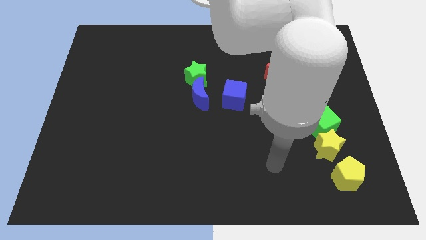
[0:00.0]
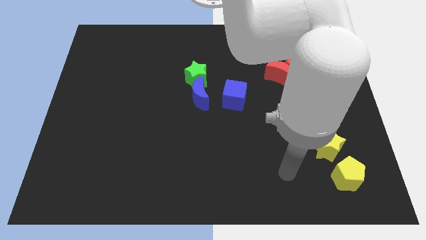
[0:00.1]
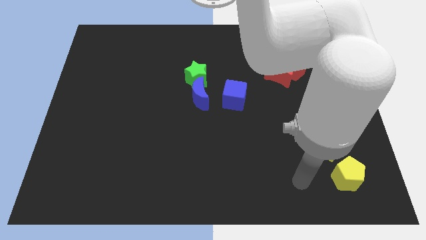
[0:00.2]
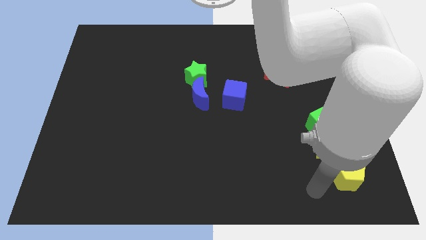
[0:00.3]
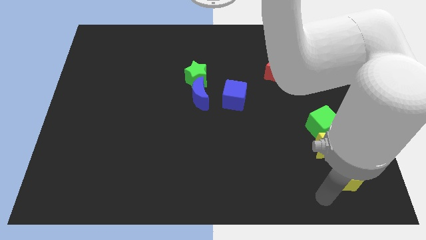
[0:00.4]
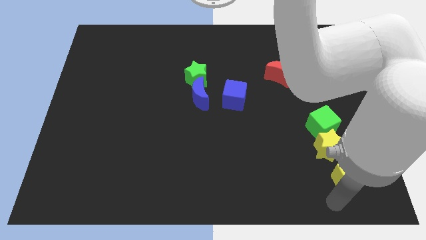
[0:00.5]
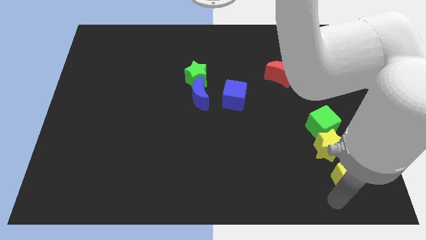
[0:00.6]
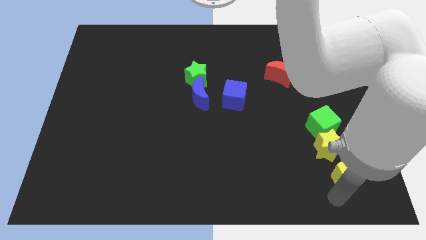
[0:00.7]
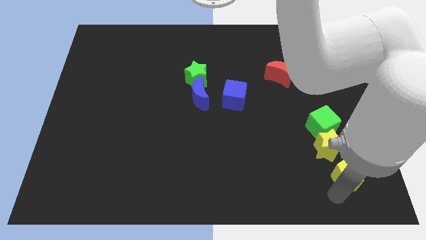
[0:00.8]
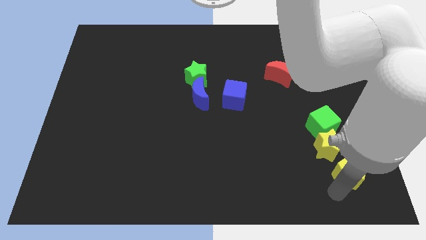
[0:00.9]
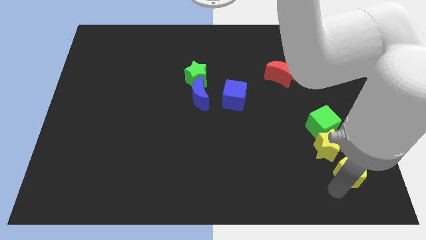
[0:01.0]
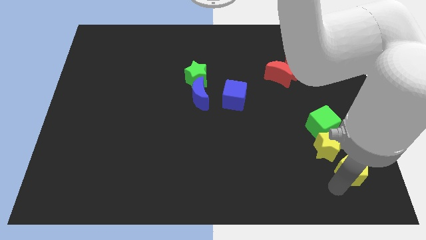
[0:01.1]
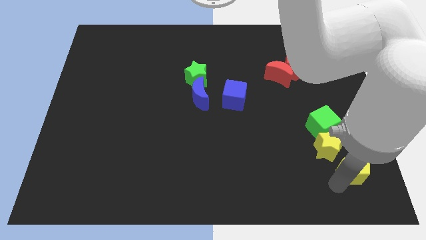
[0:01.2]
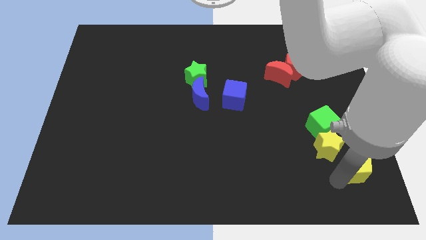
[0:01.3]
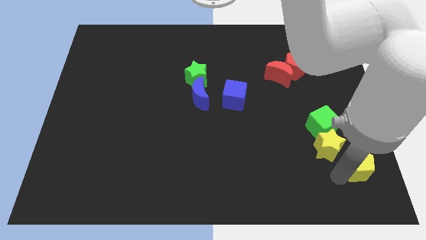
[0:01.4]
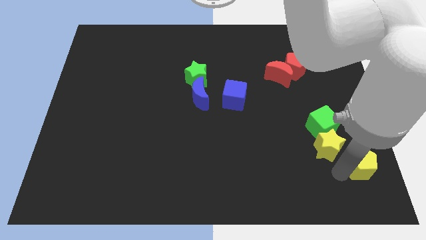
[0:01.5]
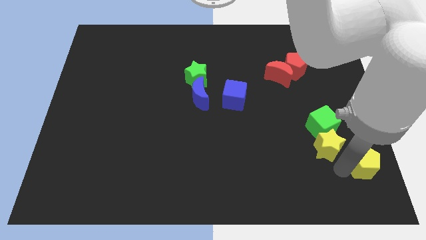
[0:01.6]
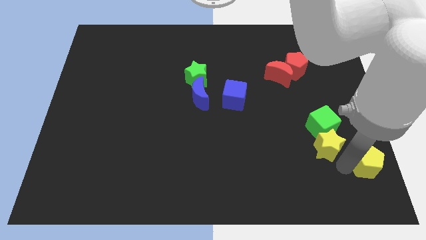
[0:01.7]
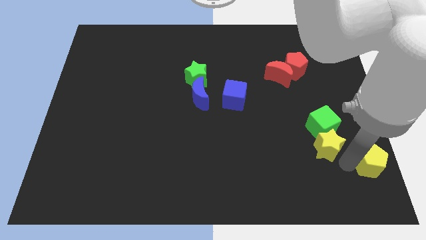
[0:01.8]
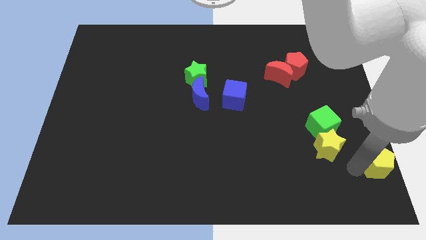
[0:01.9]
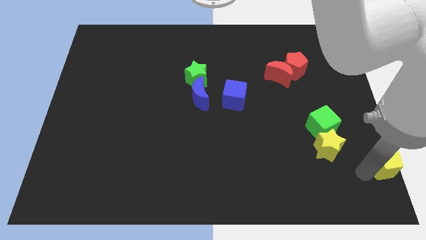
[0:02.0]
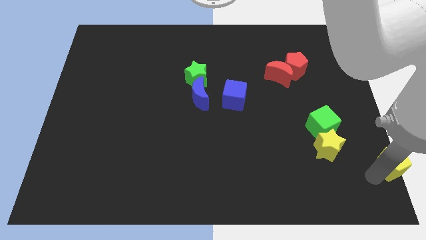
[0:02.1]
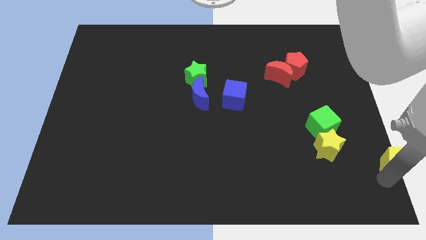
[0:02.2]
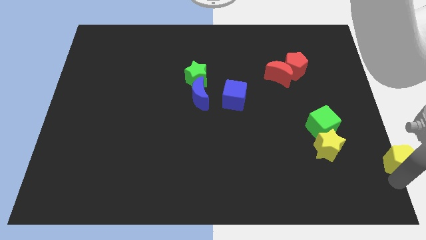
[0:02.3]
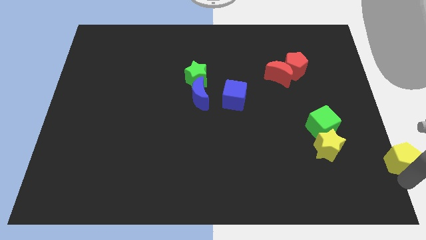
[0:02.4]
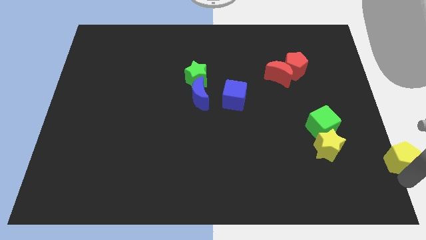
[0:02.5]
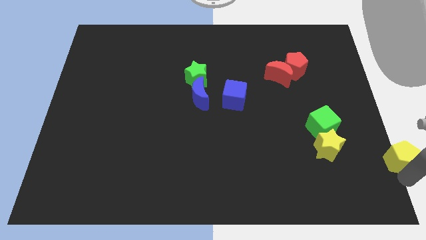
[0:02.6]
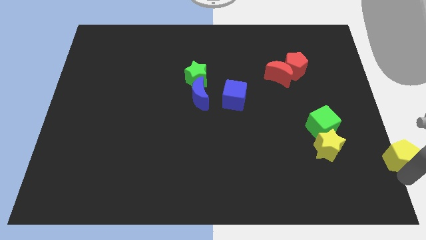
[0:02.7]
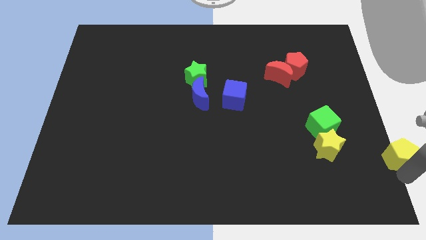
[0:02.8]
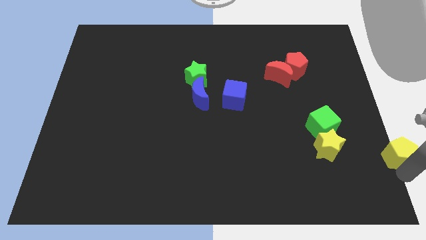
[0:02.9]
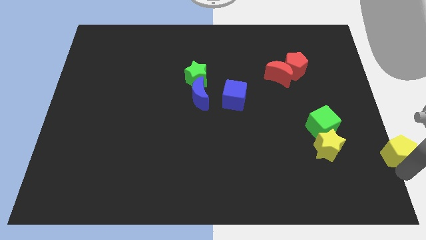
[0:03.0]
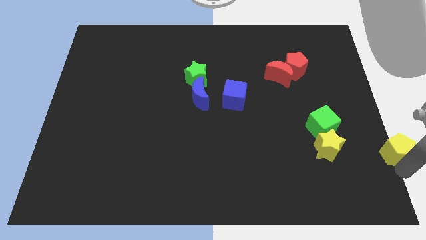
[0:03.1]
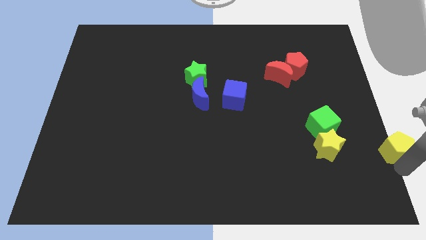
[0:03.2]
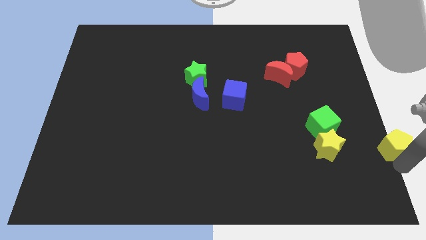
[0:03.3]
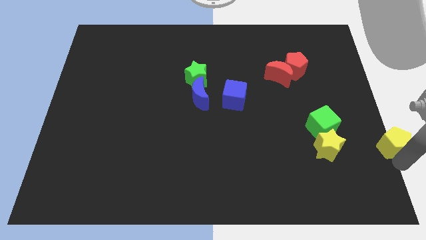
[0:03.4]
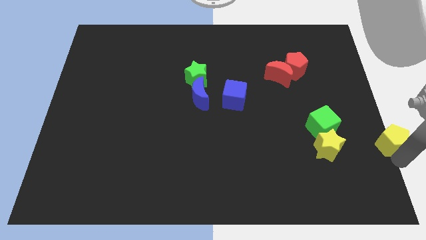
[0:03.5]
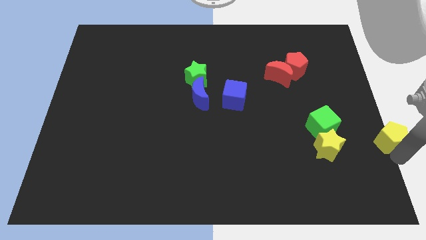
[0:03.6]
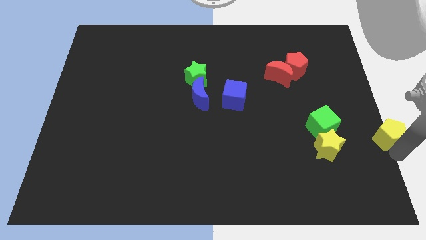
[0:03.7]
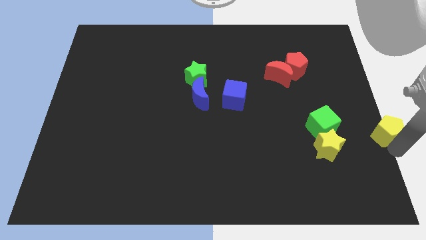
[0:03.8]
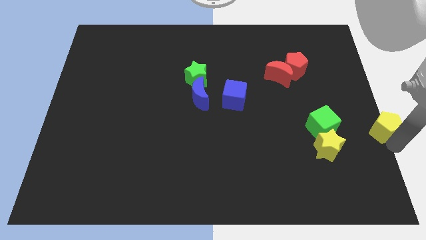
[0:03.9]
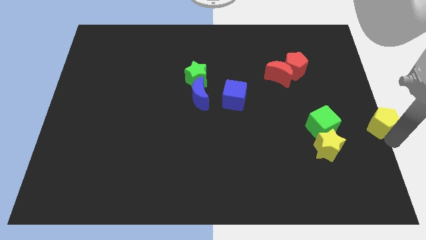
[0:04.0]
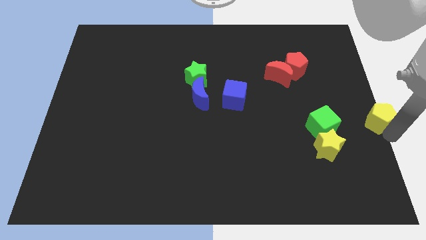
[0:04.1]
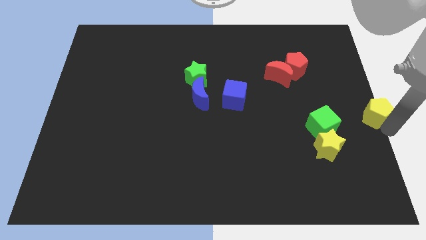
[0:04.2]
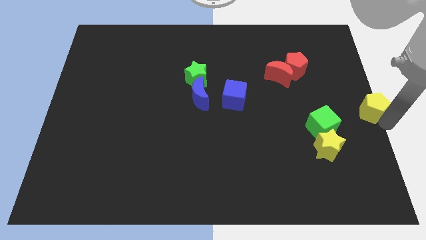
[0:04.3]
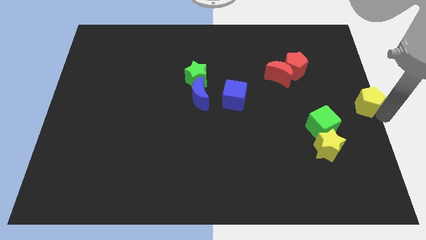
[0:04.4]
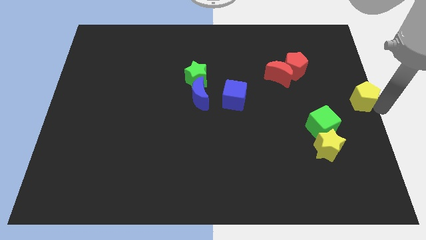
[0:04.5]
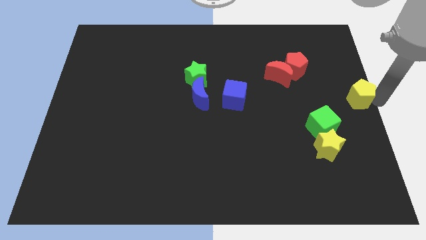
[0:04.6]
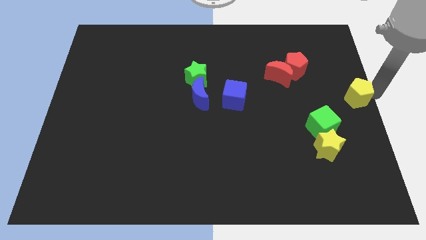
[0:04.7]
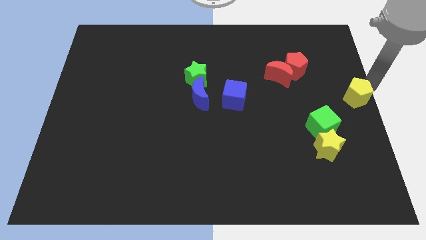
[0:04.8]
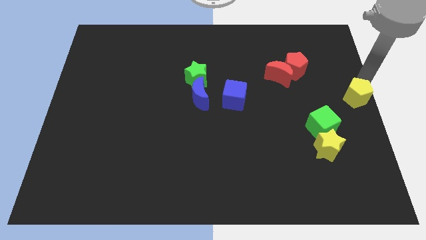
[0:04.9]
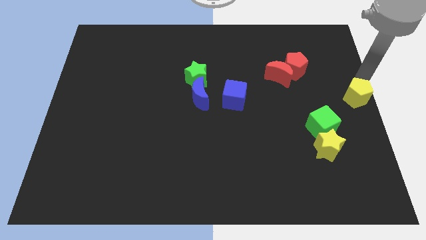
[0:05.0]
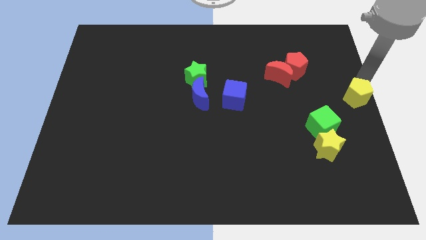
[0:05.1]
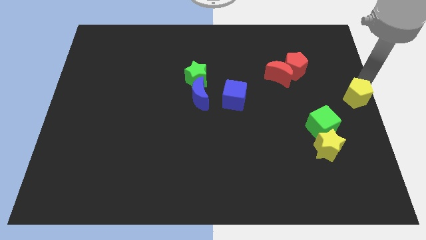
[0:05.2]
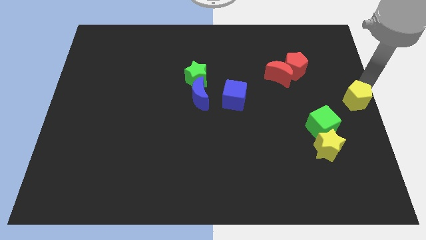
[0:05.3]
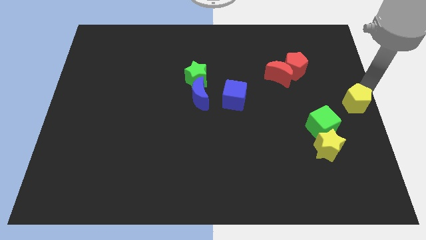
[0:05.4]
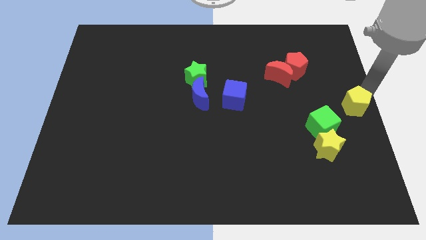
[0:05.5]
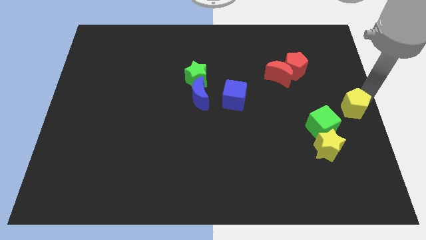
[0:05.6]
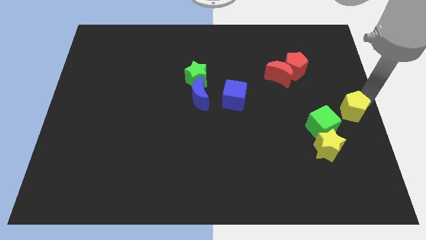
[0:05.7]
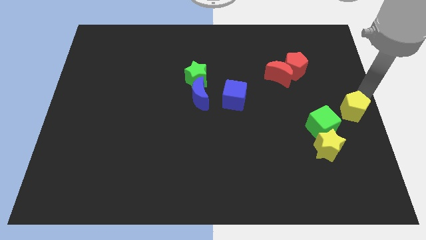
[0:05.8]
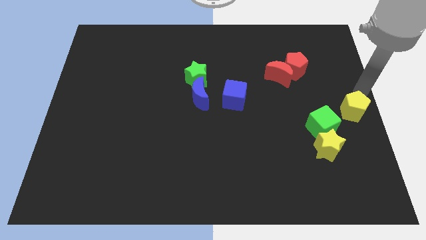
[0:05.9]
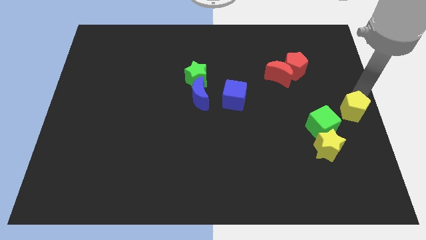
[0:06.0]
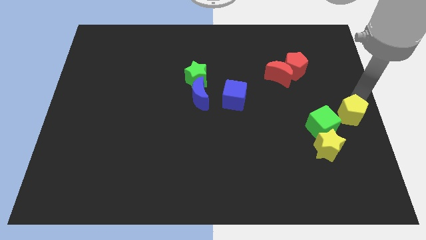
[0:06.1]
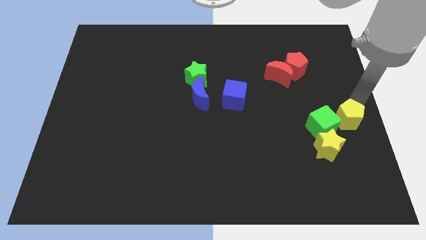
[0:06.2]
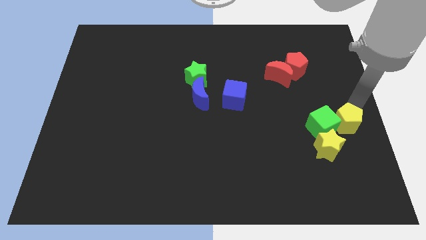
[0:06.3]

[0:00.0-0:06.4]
put the yellow pentagon towards the green cube

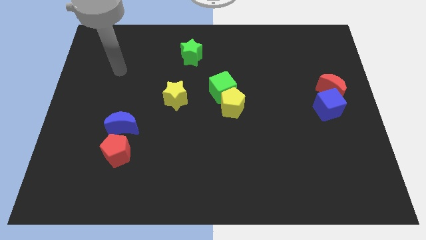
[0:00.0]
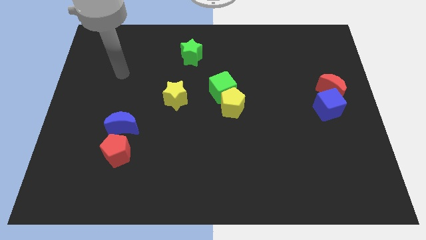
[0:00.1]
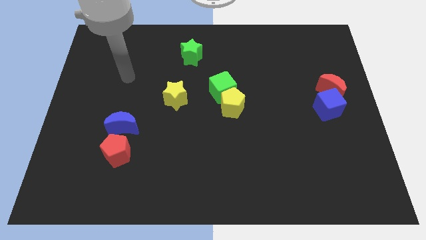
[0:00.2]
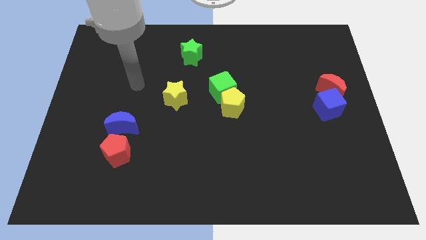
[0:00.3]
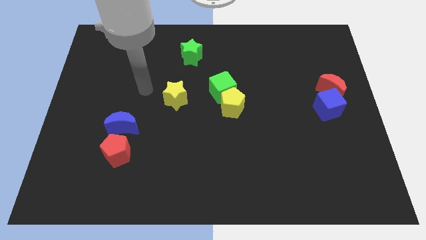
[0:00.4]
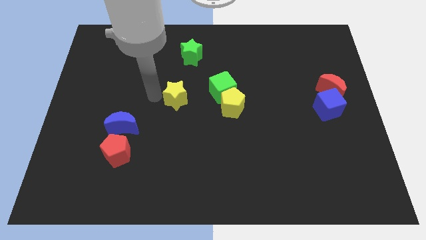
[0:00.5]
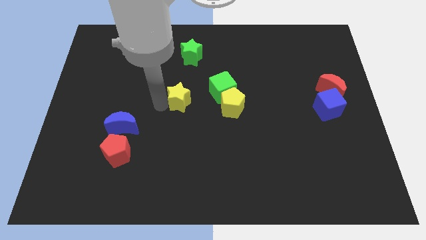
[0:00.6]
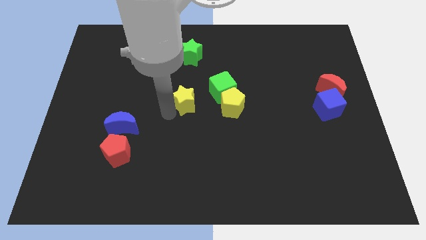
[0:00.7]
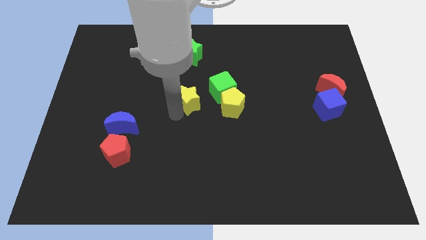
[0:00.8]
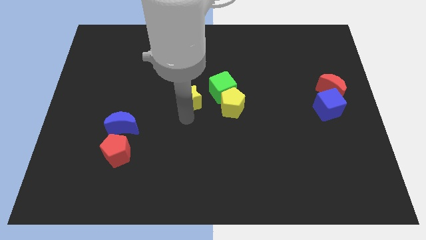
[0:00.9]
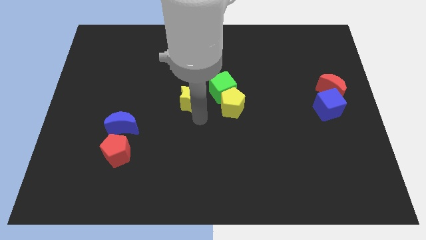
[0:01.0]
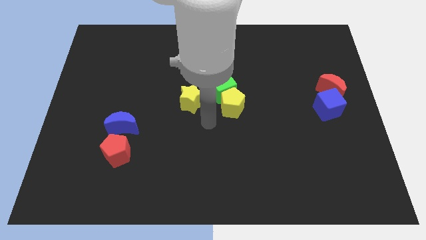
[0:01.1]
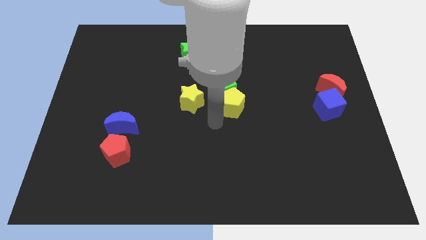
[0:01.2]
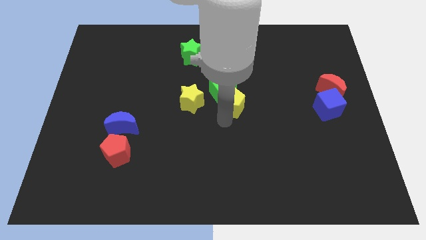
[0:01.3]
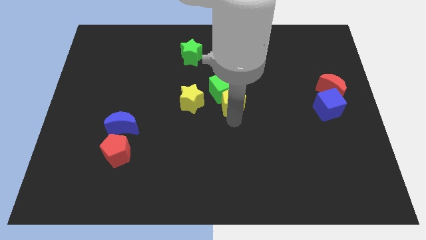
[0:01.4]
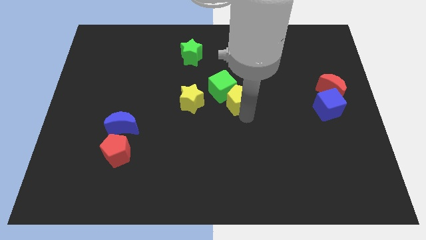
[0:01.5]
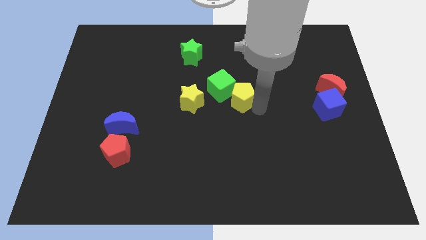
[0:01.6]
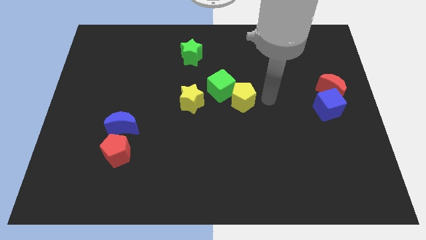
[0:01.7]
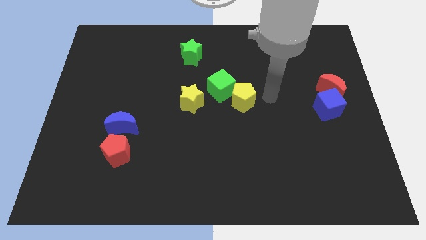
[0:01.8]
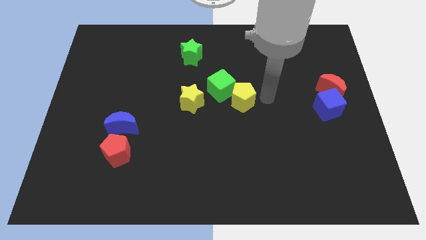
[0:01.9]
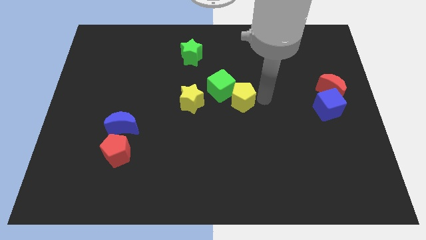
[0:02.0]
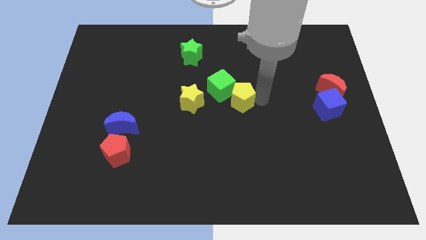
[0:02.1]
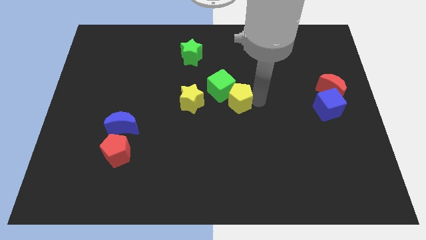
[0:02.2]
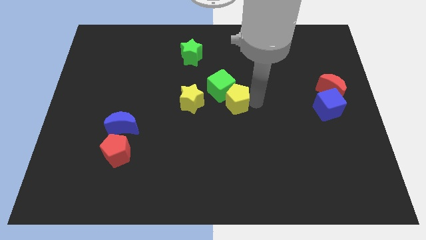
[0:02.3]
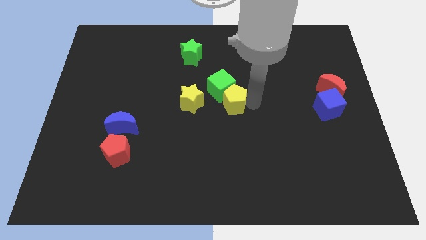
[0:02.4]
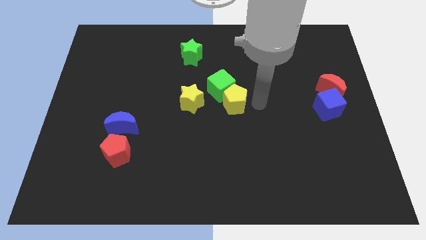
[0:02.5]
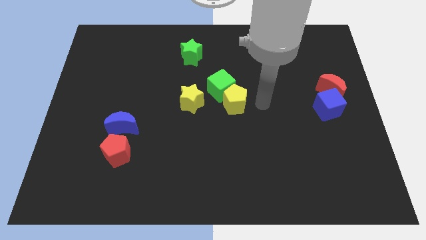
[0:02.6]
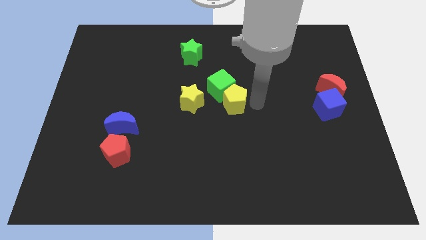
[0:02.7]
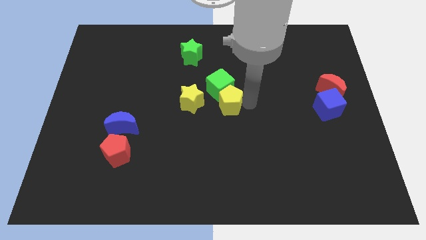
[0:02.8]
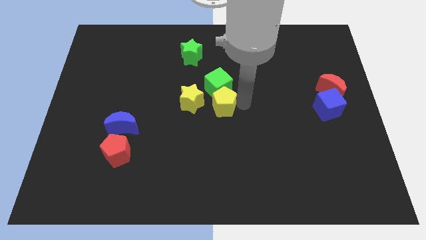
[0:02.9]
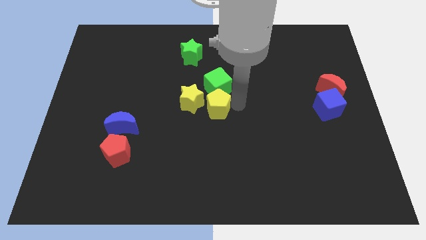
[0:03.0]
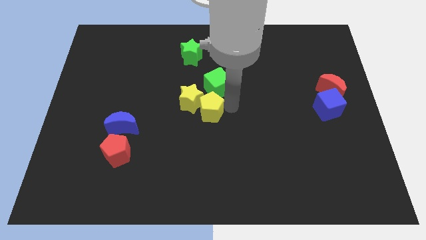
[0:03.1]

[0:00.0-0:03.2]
move the yellow pentagon to the yellow star
